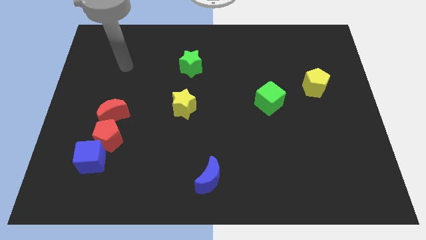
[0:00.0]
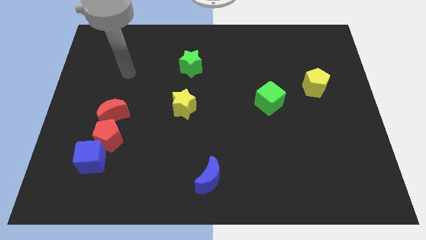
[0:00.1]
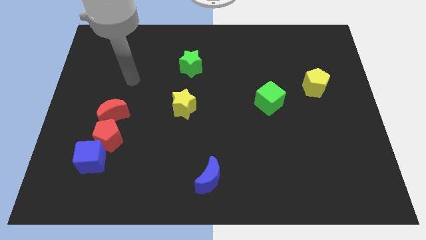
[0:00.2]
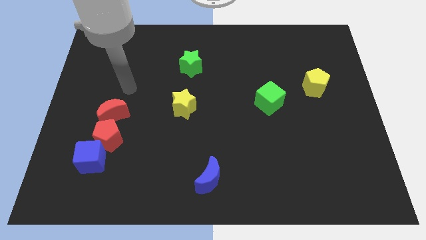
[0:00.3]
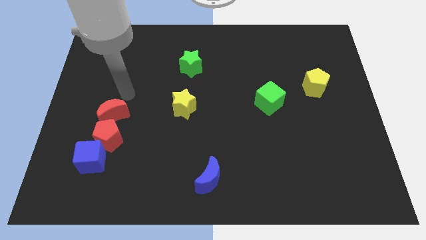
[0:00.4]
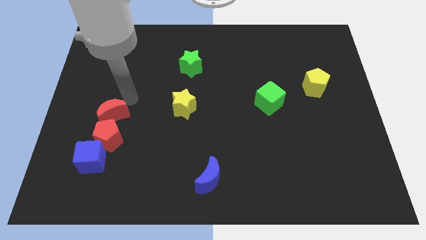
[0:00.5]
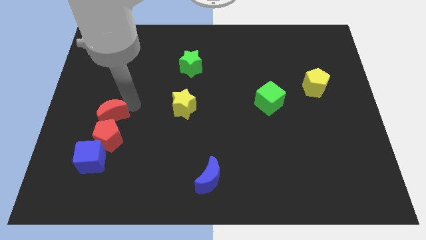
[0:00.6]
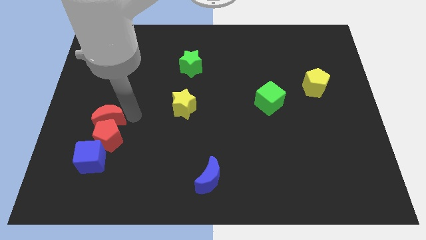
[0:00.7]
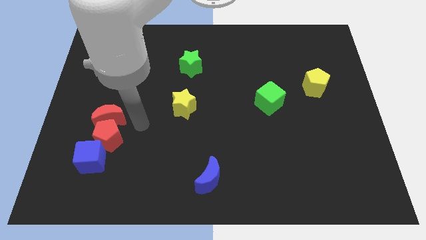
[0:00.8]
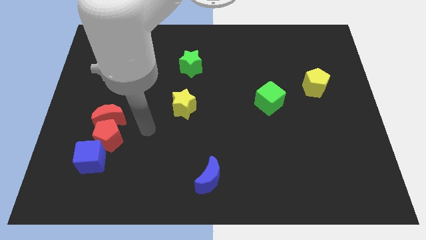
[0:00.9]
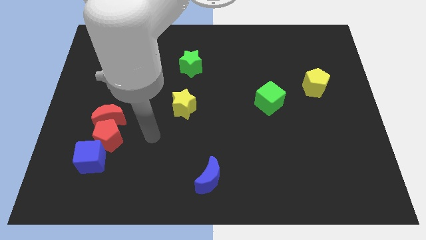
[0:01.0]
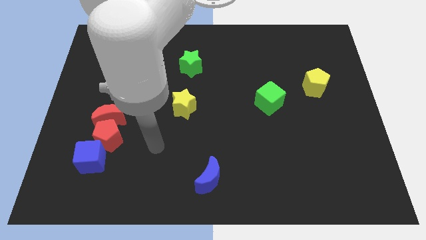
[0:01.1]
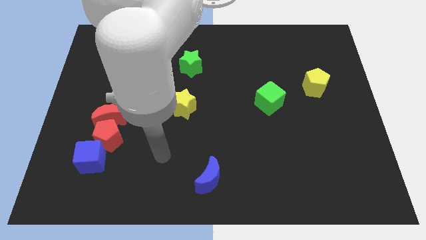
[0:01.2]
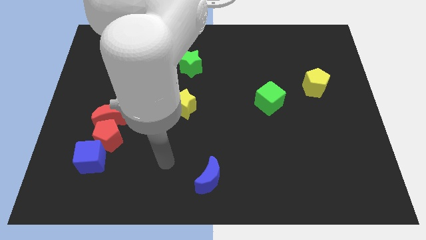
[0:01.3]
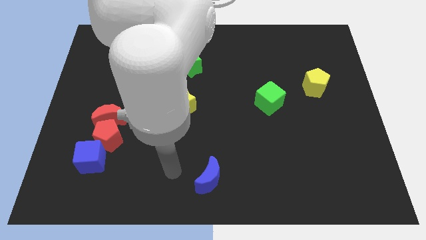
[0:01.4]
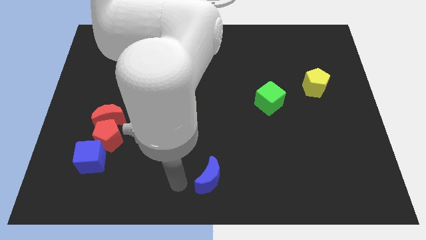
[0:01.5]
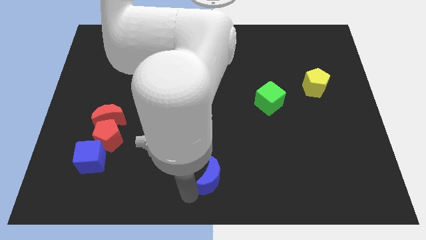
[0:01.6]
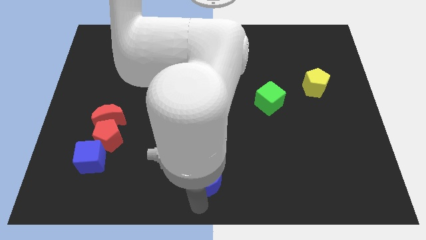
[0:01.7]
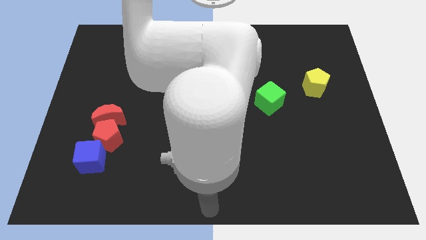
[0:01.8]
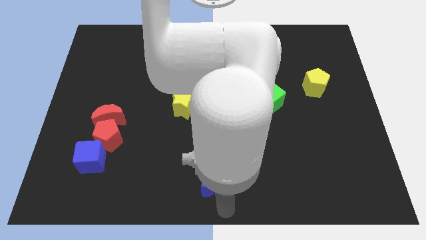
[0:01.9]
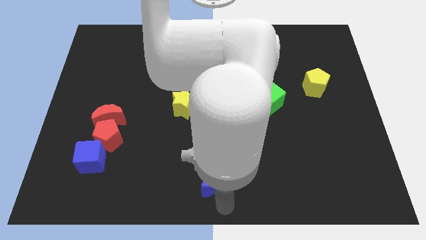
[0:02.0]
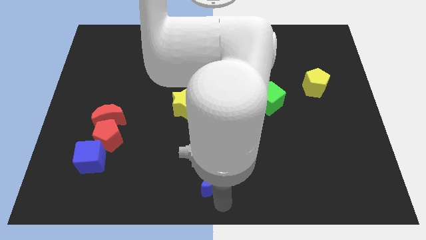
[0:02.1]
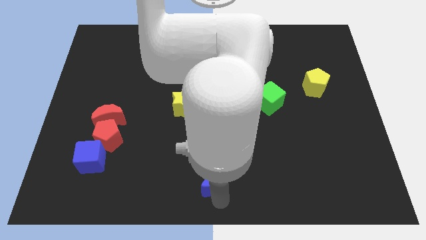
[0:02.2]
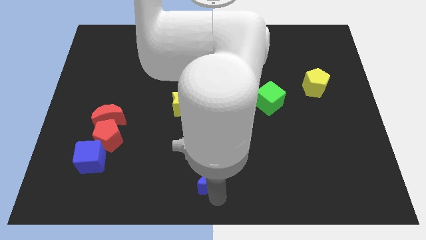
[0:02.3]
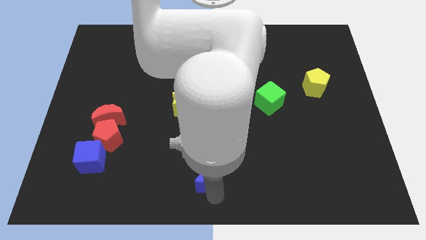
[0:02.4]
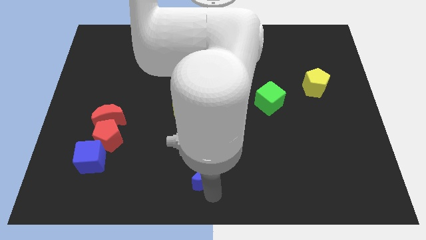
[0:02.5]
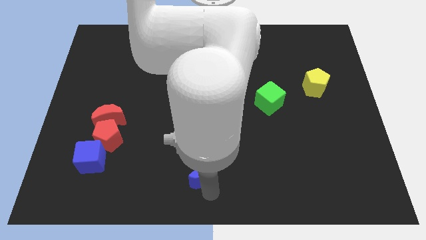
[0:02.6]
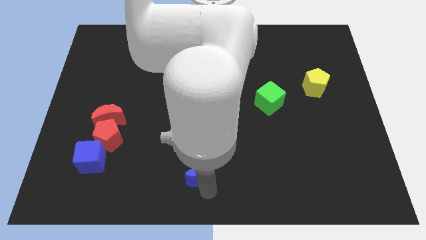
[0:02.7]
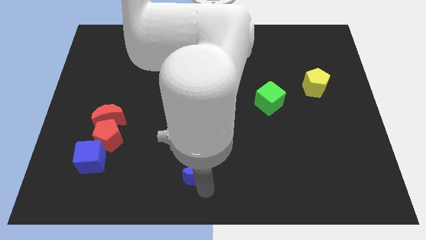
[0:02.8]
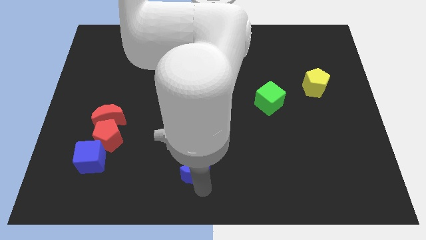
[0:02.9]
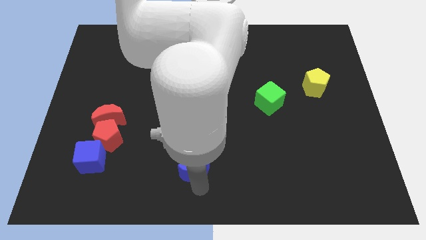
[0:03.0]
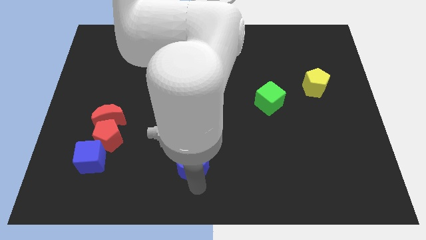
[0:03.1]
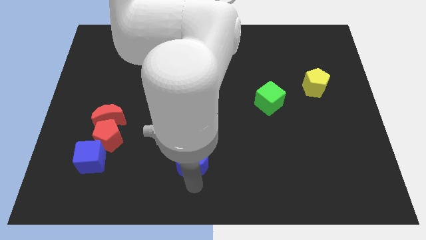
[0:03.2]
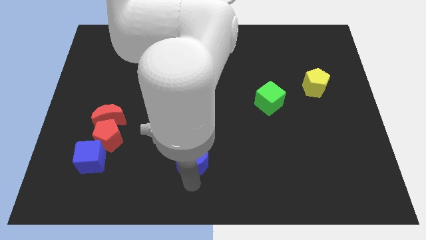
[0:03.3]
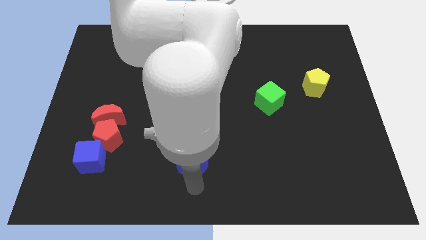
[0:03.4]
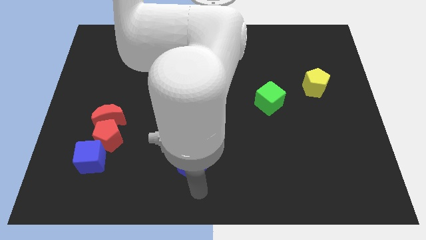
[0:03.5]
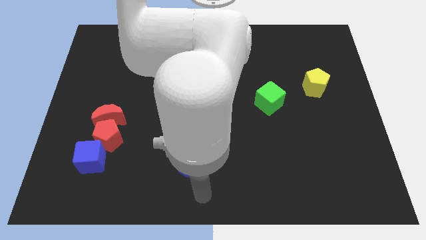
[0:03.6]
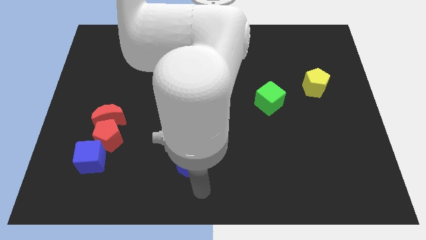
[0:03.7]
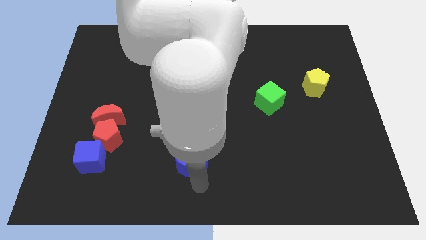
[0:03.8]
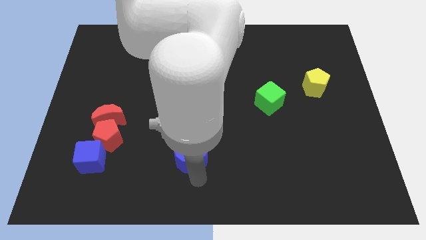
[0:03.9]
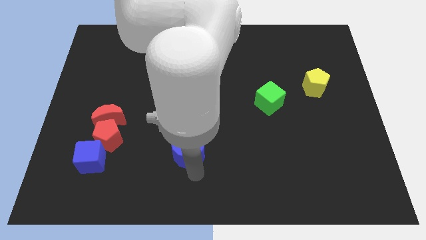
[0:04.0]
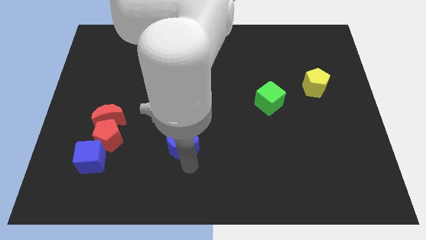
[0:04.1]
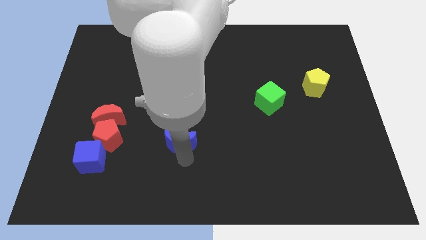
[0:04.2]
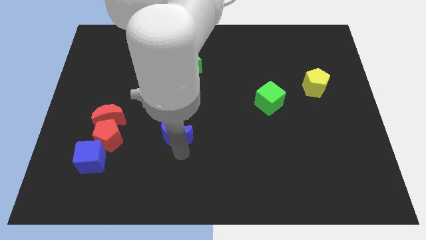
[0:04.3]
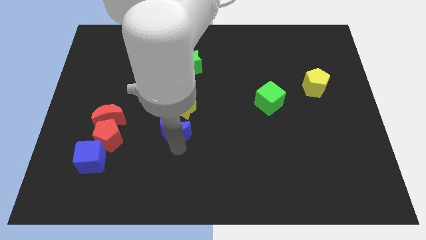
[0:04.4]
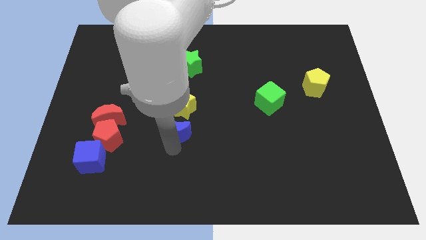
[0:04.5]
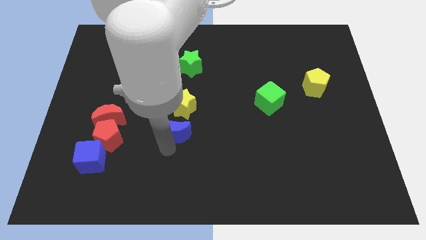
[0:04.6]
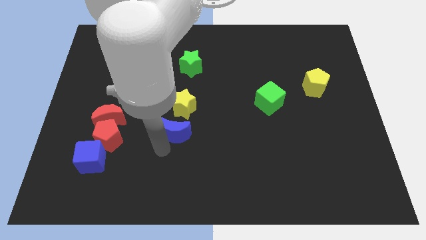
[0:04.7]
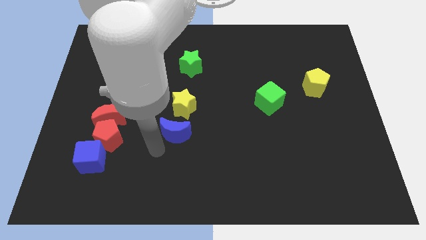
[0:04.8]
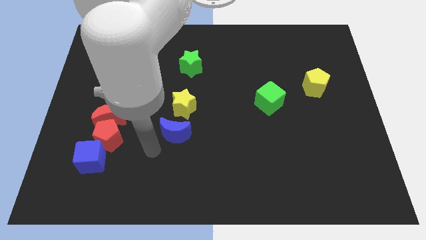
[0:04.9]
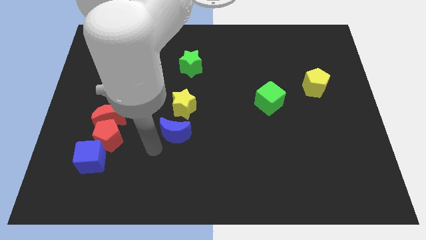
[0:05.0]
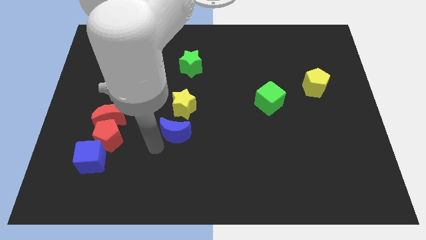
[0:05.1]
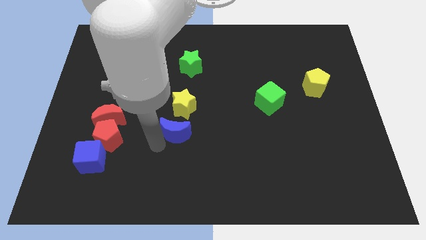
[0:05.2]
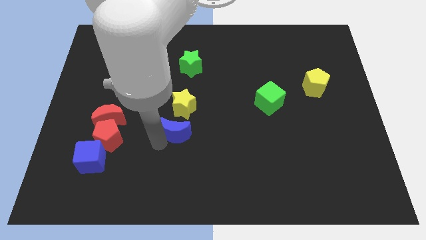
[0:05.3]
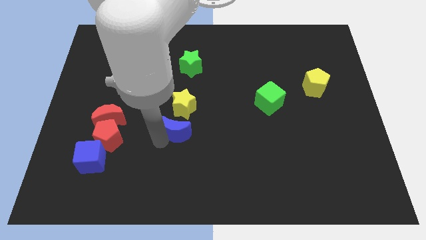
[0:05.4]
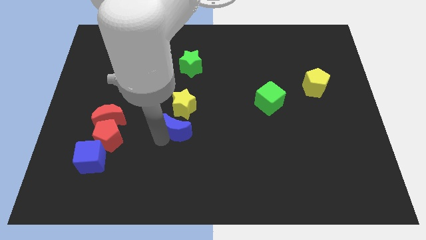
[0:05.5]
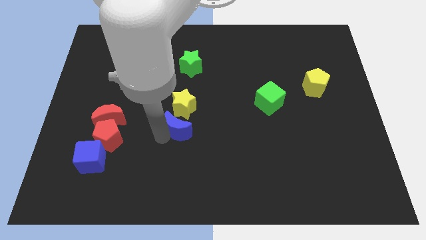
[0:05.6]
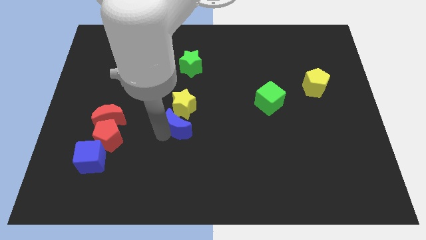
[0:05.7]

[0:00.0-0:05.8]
slide the blue moon to the yellow star

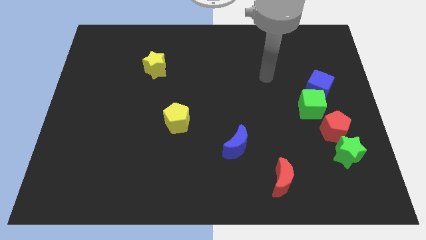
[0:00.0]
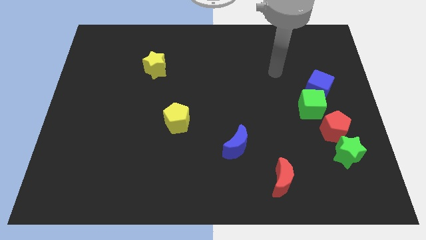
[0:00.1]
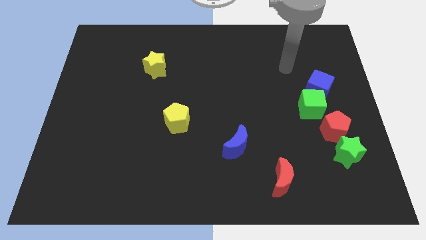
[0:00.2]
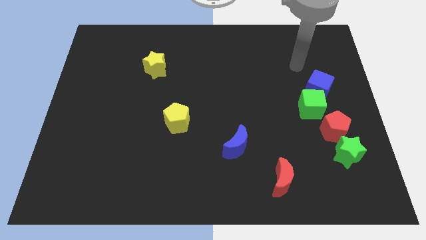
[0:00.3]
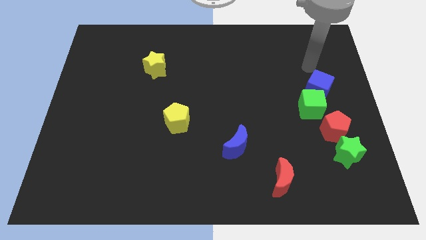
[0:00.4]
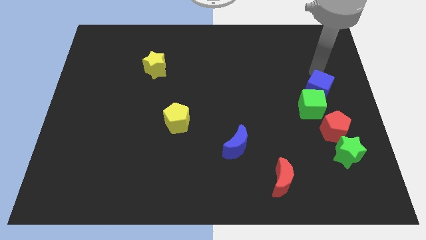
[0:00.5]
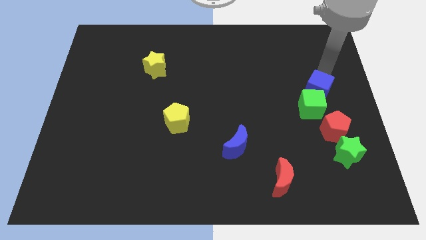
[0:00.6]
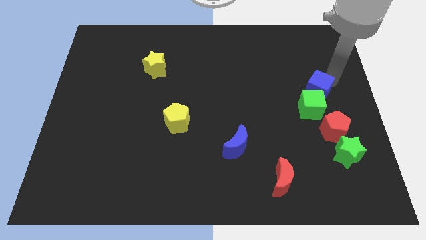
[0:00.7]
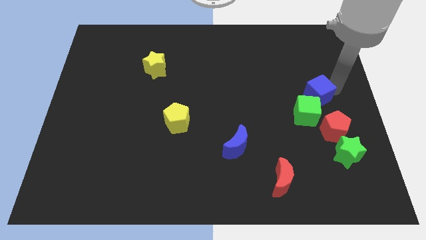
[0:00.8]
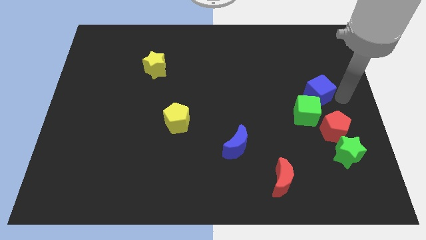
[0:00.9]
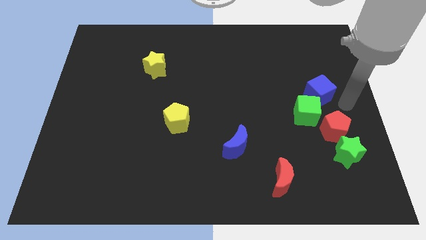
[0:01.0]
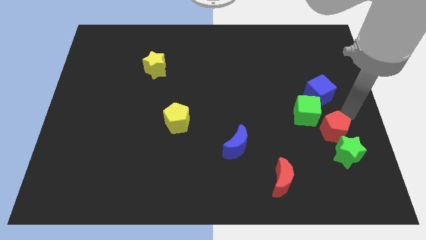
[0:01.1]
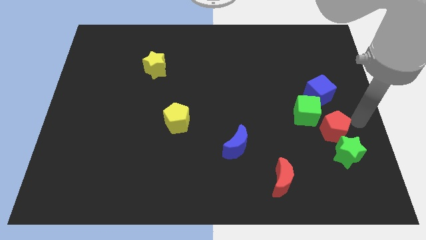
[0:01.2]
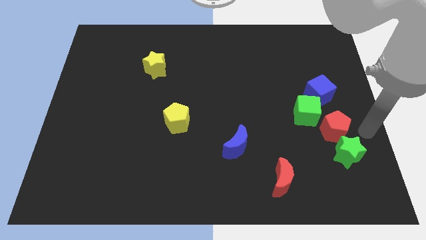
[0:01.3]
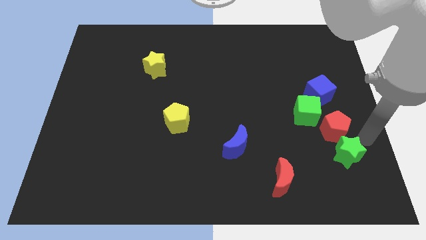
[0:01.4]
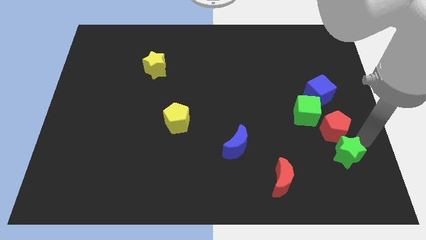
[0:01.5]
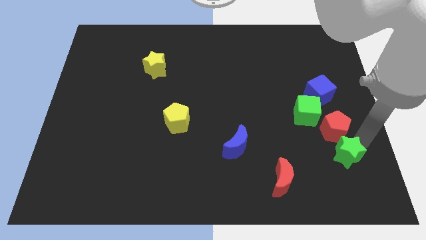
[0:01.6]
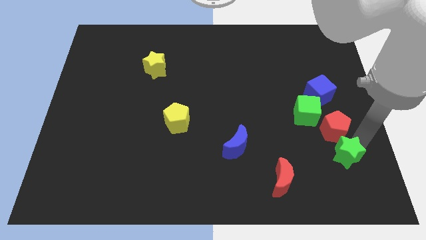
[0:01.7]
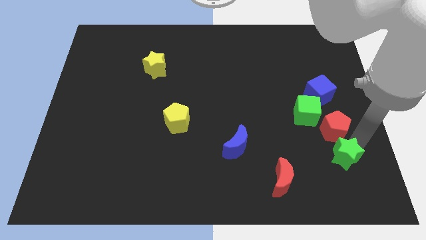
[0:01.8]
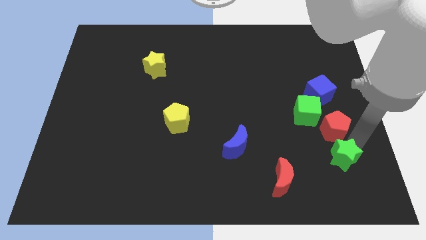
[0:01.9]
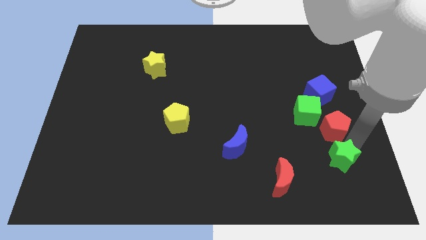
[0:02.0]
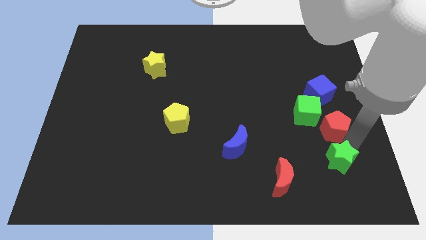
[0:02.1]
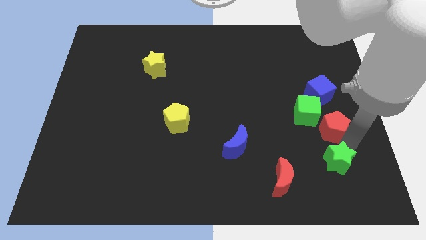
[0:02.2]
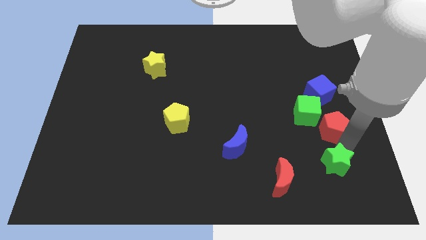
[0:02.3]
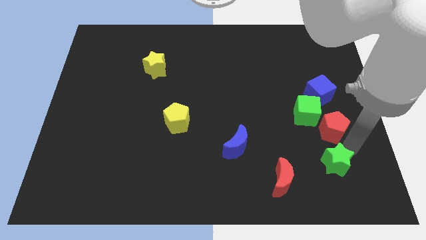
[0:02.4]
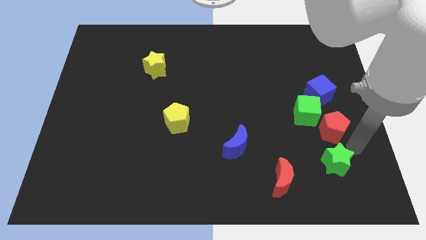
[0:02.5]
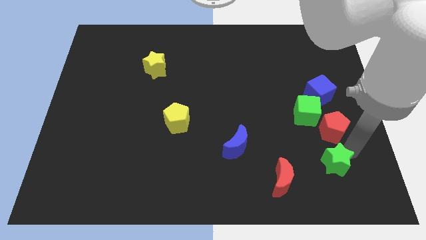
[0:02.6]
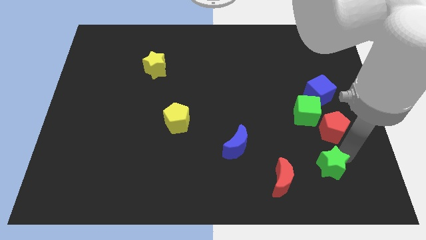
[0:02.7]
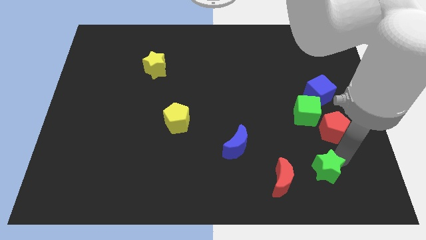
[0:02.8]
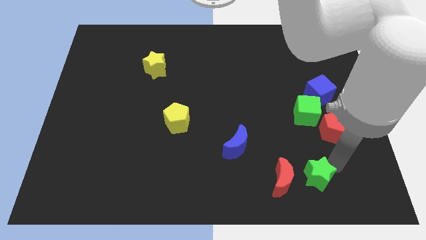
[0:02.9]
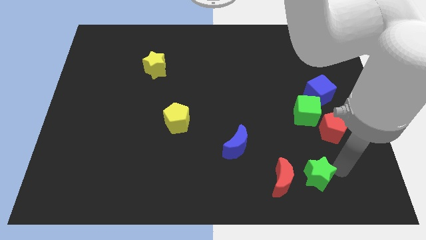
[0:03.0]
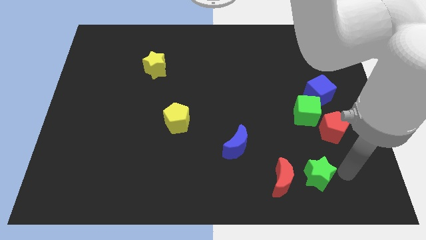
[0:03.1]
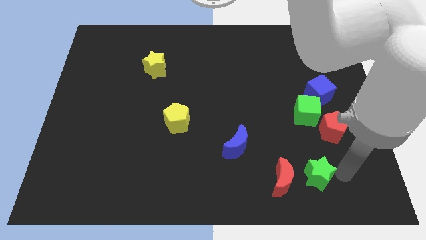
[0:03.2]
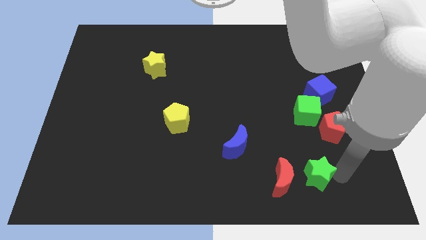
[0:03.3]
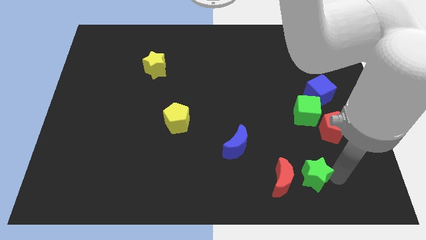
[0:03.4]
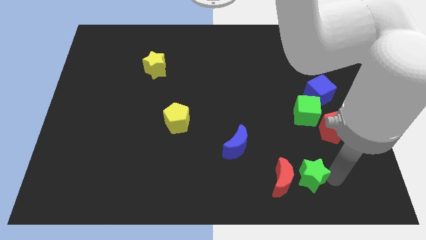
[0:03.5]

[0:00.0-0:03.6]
slide the green star close to the red moon
